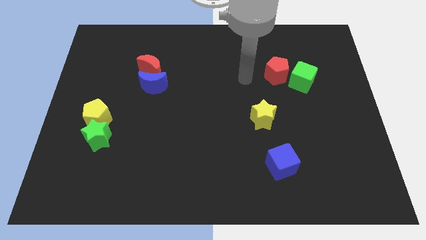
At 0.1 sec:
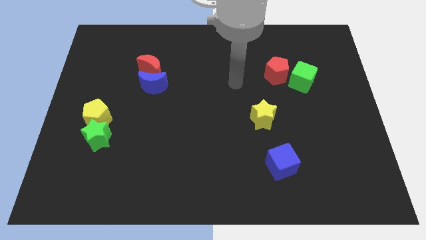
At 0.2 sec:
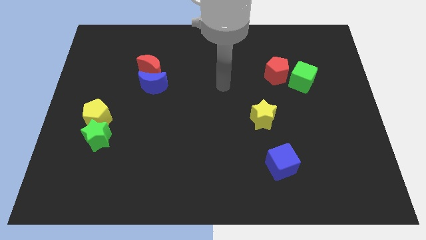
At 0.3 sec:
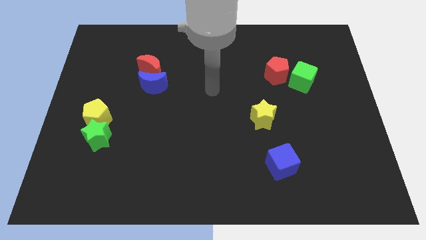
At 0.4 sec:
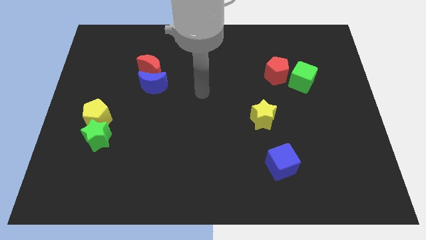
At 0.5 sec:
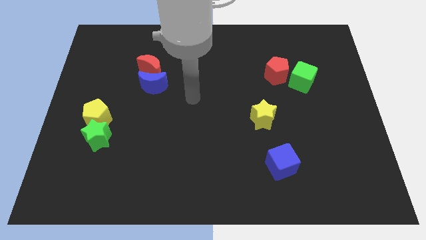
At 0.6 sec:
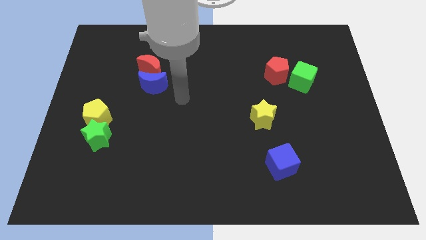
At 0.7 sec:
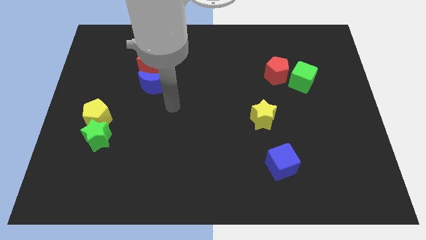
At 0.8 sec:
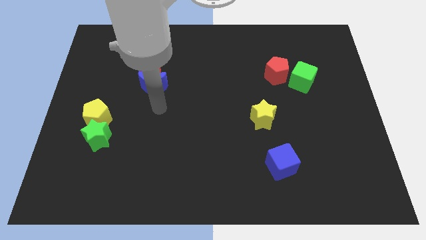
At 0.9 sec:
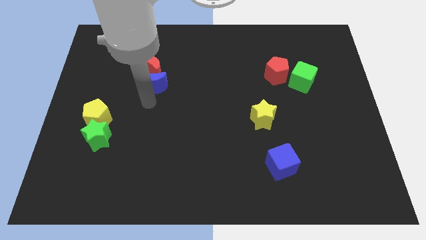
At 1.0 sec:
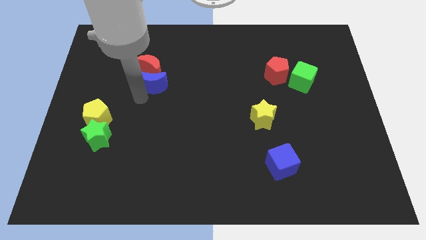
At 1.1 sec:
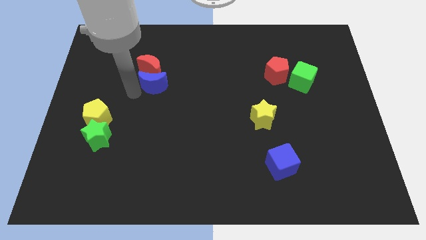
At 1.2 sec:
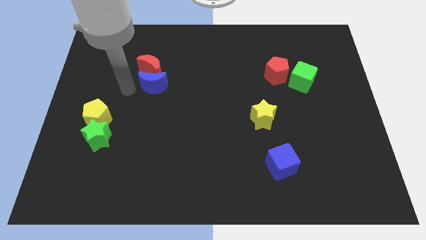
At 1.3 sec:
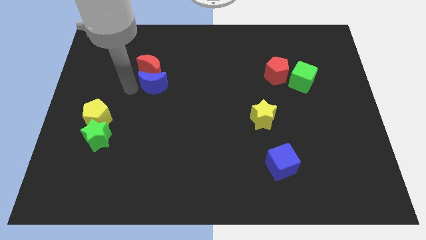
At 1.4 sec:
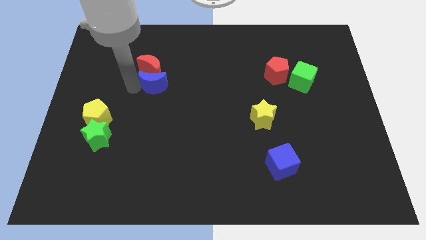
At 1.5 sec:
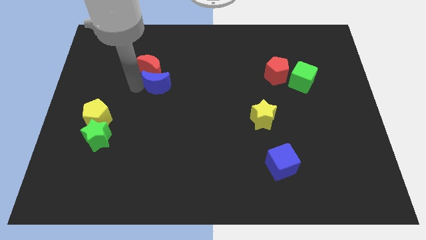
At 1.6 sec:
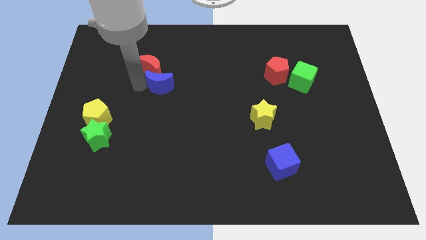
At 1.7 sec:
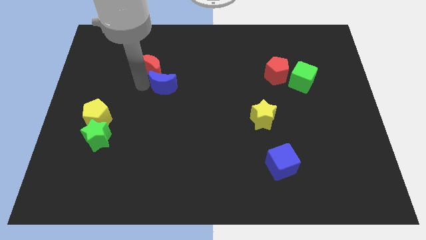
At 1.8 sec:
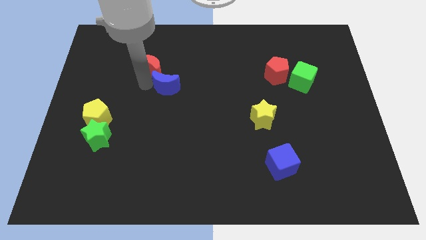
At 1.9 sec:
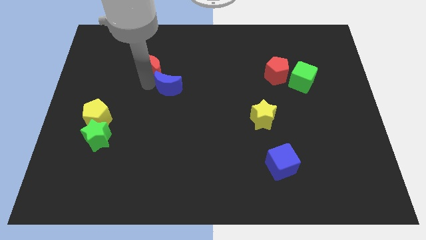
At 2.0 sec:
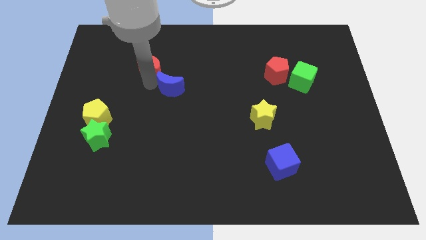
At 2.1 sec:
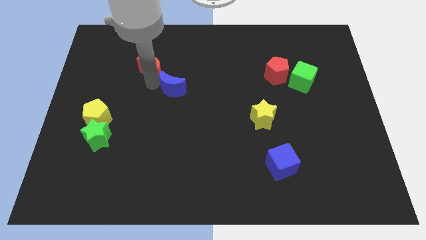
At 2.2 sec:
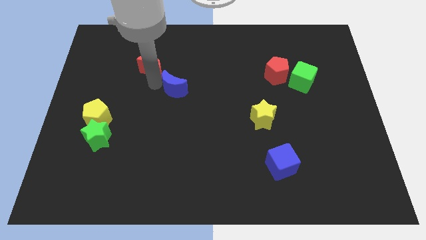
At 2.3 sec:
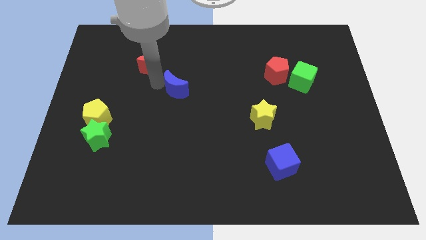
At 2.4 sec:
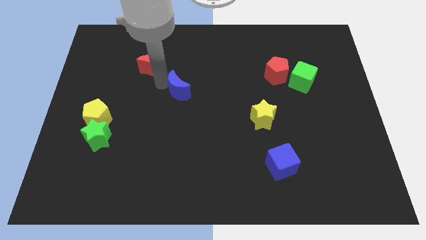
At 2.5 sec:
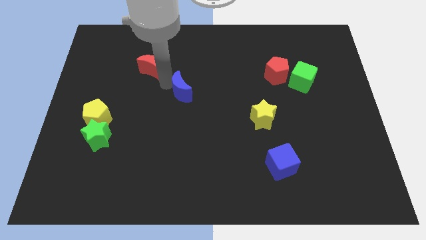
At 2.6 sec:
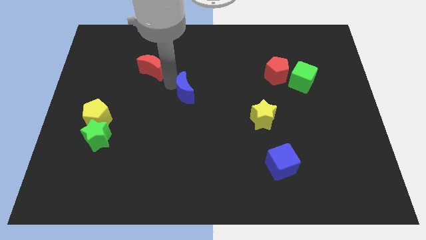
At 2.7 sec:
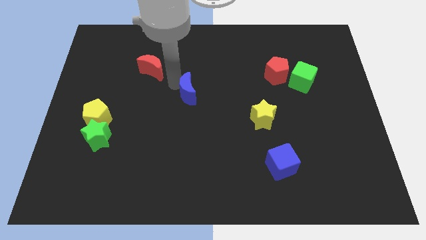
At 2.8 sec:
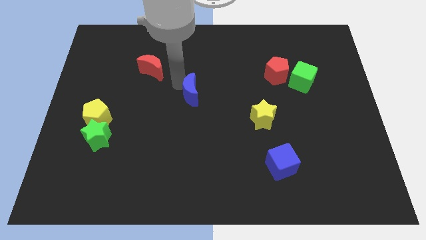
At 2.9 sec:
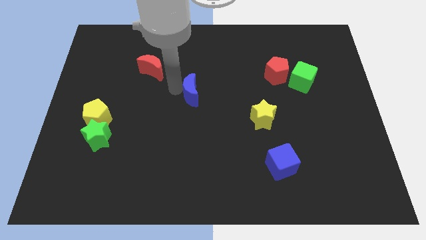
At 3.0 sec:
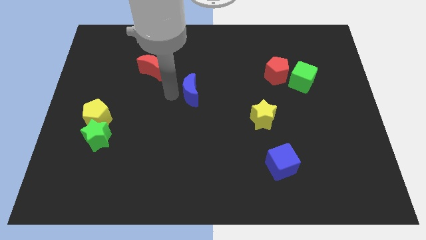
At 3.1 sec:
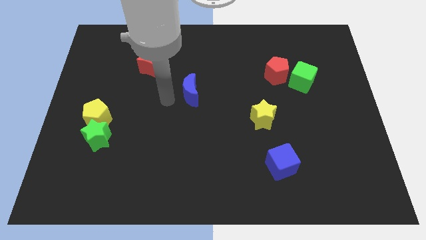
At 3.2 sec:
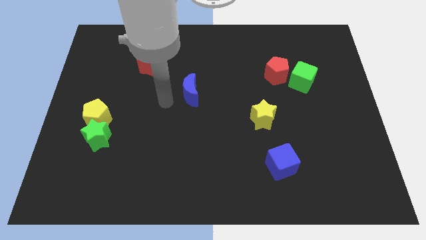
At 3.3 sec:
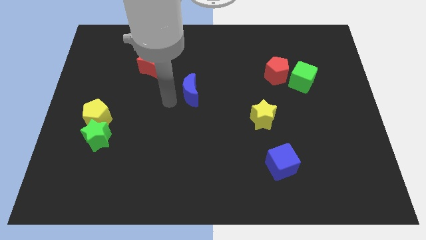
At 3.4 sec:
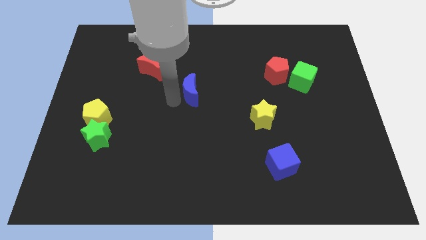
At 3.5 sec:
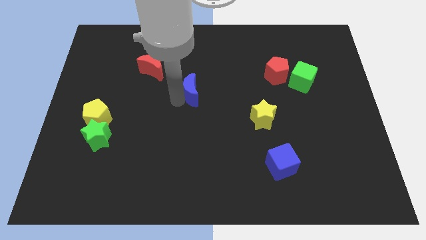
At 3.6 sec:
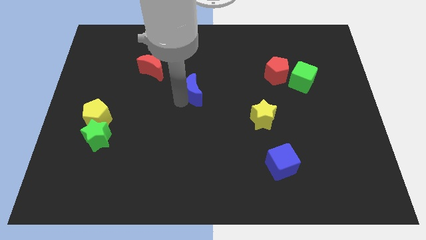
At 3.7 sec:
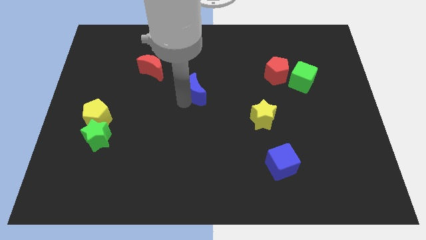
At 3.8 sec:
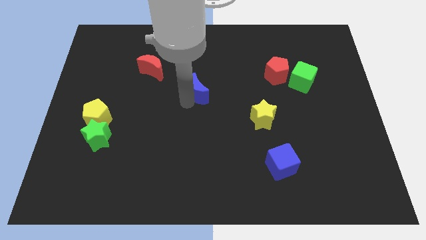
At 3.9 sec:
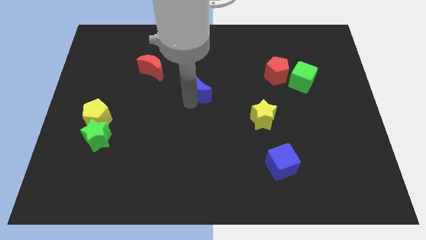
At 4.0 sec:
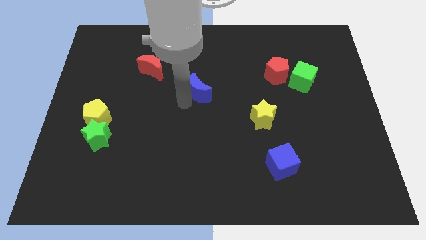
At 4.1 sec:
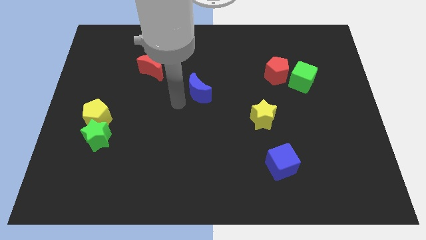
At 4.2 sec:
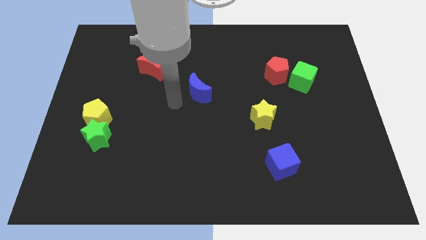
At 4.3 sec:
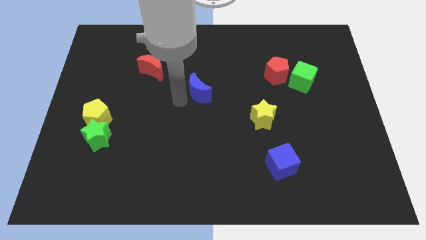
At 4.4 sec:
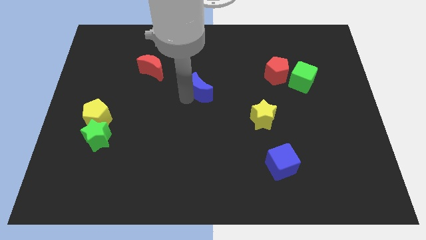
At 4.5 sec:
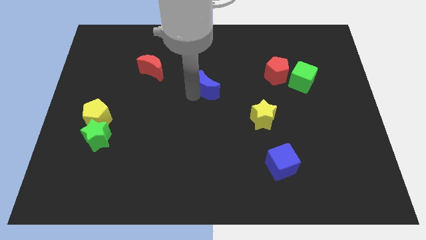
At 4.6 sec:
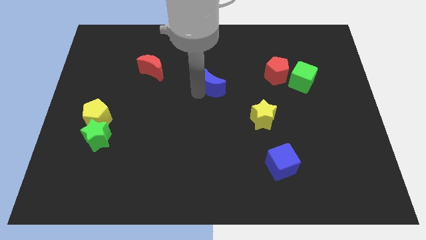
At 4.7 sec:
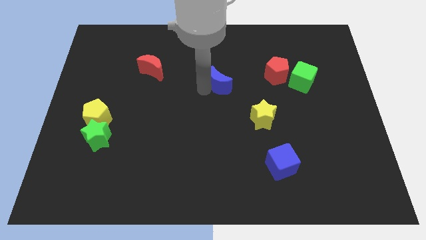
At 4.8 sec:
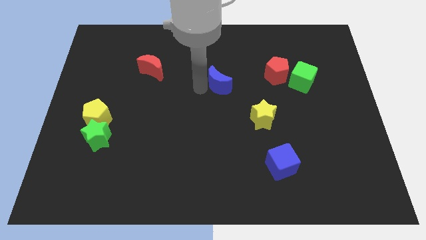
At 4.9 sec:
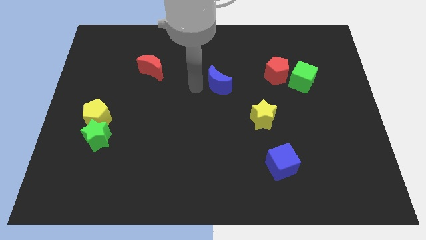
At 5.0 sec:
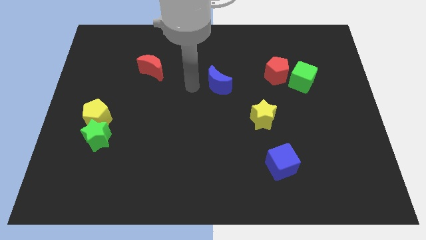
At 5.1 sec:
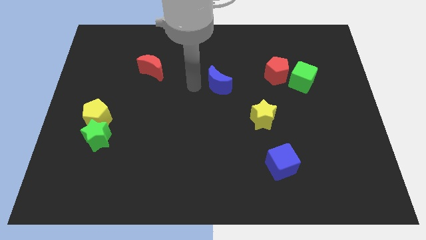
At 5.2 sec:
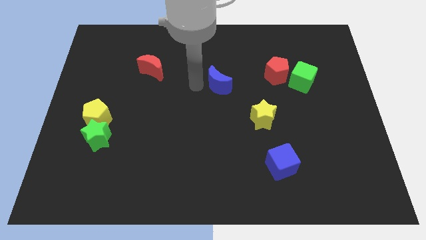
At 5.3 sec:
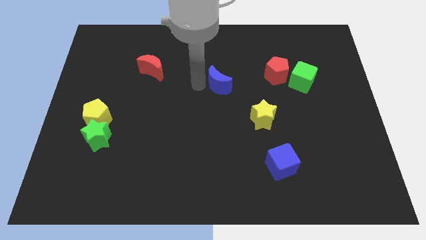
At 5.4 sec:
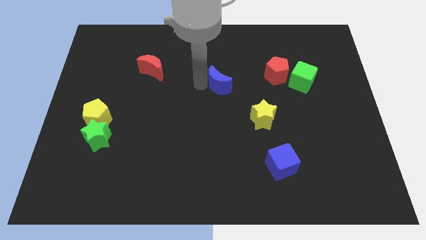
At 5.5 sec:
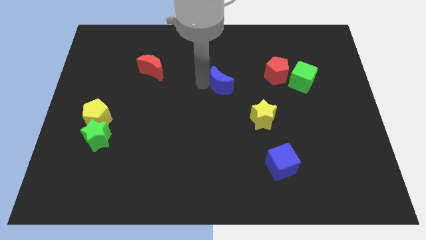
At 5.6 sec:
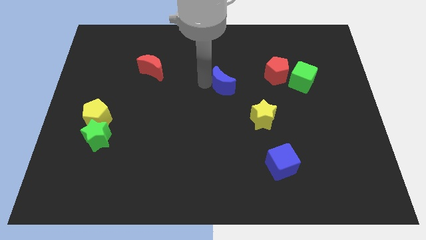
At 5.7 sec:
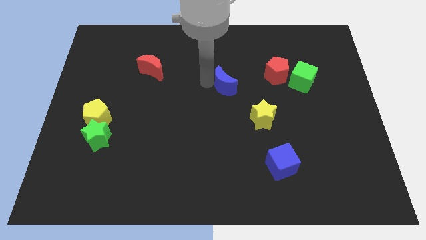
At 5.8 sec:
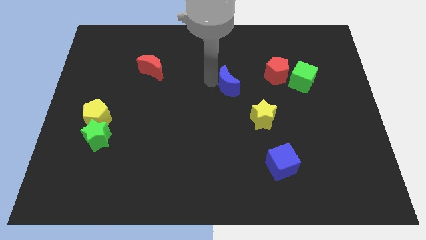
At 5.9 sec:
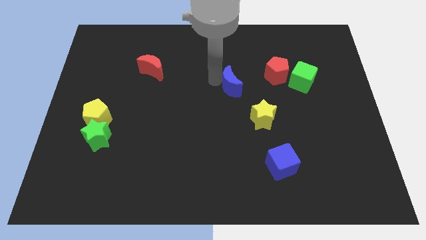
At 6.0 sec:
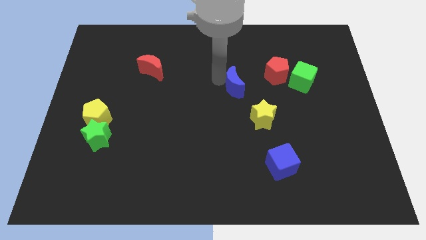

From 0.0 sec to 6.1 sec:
push the blue moon right

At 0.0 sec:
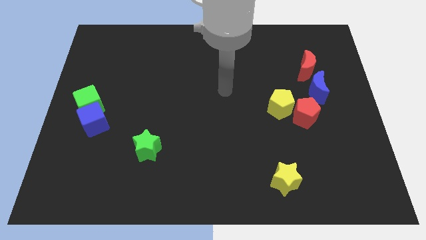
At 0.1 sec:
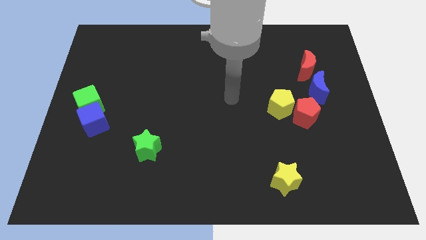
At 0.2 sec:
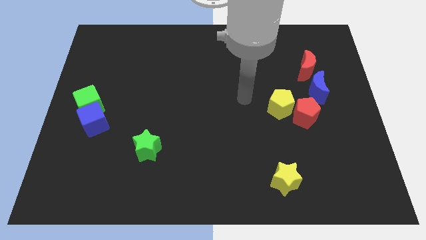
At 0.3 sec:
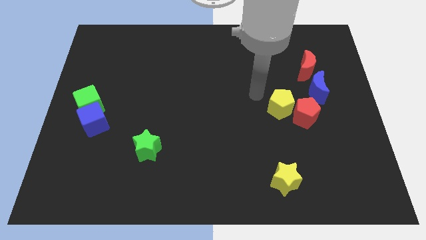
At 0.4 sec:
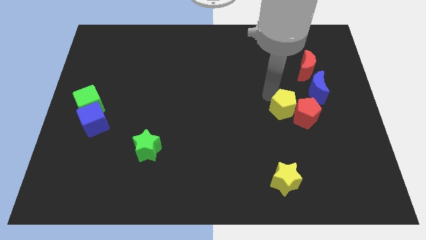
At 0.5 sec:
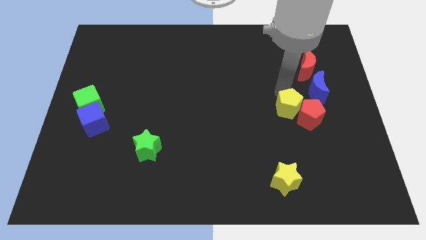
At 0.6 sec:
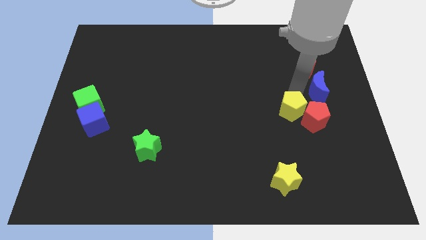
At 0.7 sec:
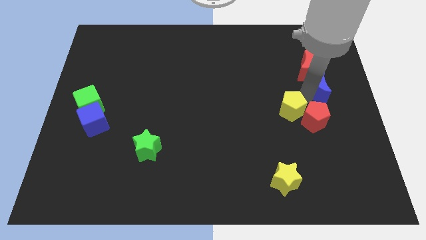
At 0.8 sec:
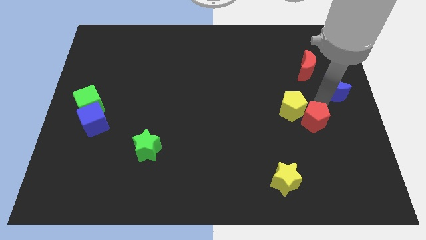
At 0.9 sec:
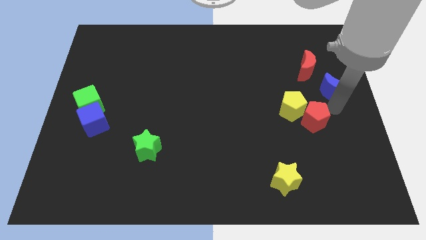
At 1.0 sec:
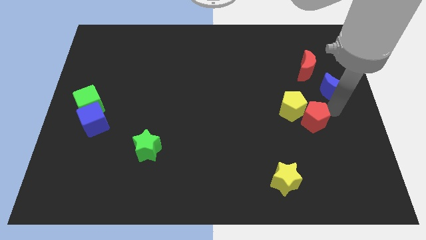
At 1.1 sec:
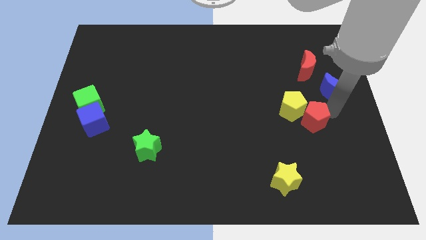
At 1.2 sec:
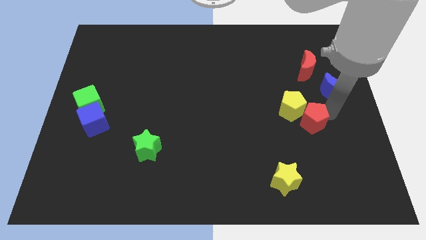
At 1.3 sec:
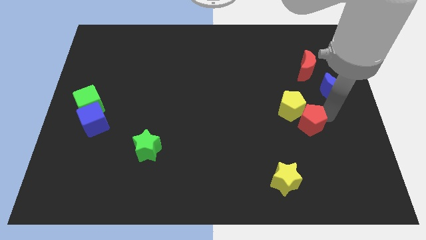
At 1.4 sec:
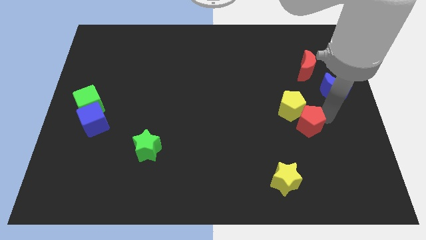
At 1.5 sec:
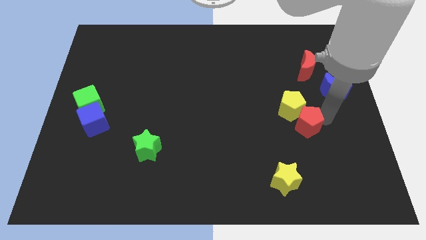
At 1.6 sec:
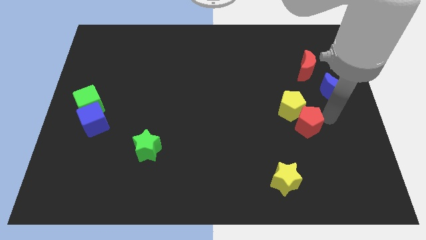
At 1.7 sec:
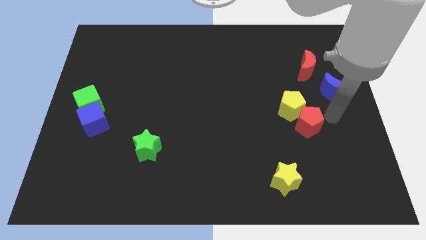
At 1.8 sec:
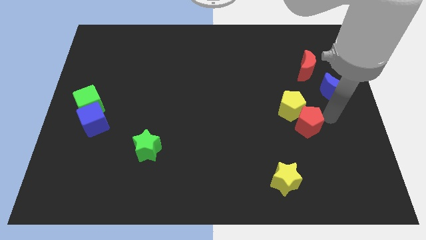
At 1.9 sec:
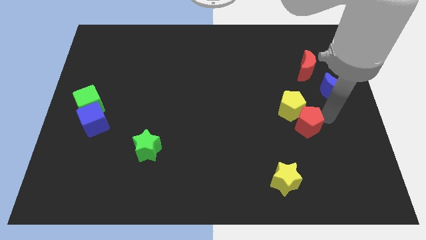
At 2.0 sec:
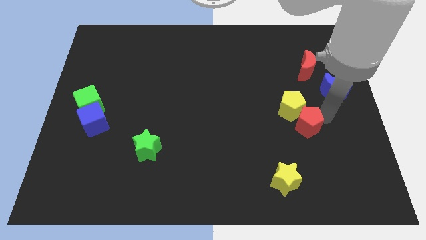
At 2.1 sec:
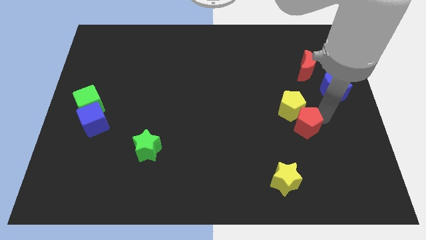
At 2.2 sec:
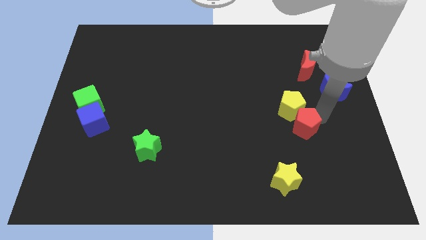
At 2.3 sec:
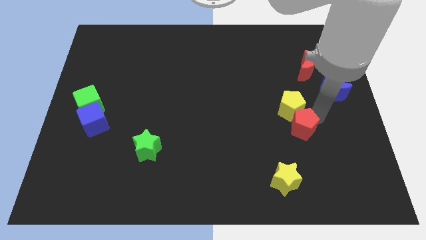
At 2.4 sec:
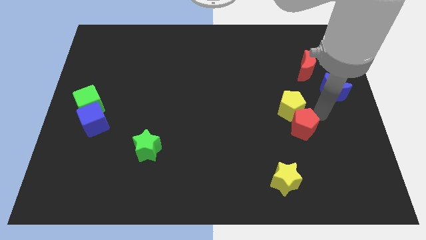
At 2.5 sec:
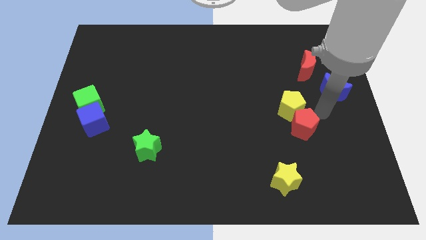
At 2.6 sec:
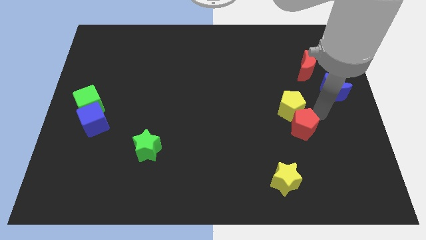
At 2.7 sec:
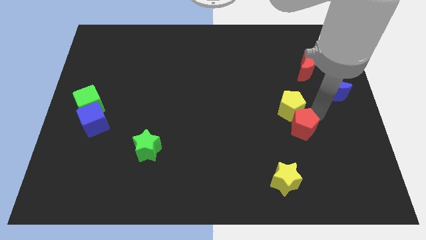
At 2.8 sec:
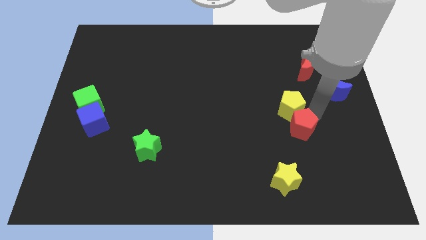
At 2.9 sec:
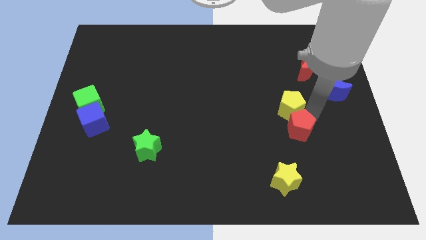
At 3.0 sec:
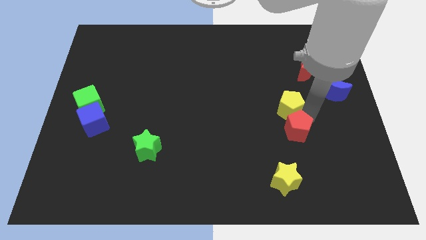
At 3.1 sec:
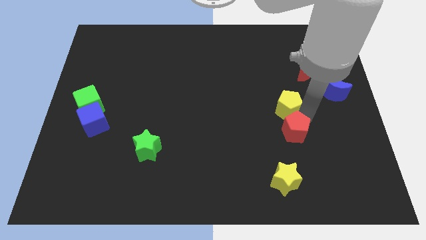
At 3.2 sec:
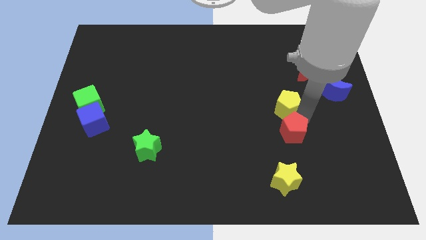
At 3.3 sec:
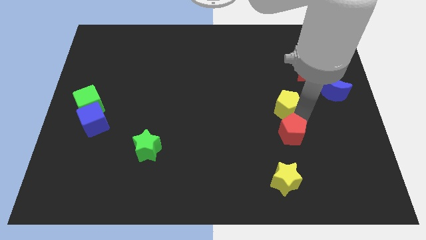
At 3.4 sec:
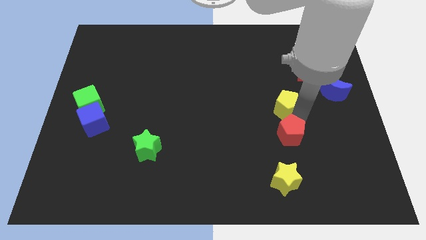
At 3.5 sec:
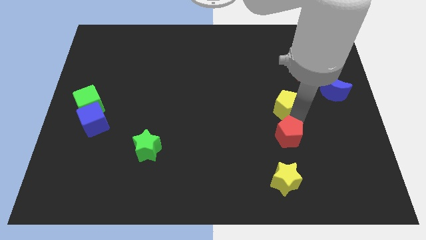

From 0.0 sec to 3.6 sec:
push the red pentagon somewhat downwards and left
